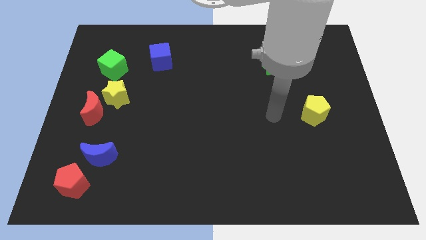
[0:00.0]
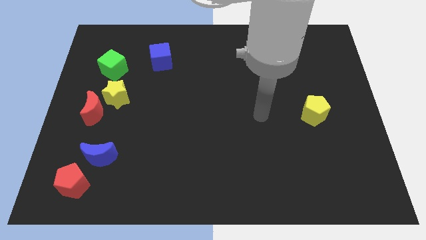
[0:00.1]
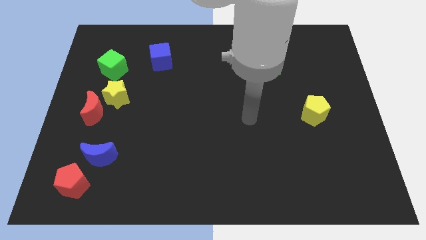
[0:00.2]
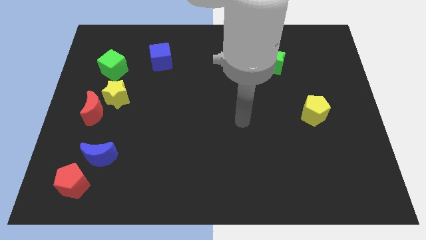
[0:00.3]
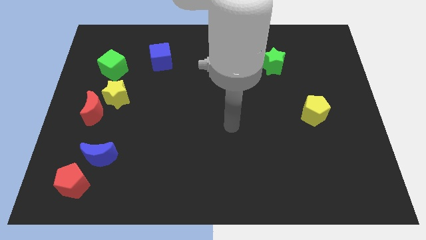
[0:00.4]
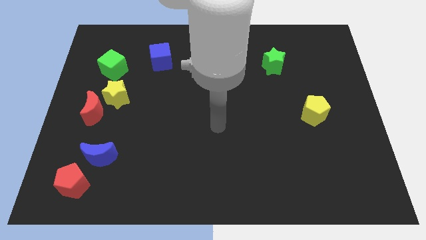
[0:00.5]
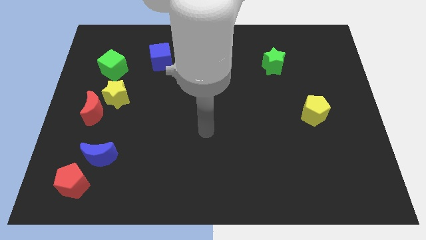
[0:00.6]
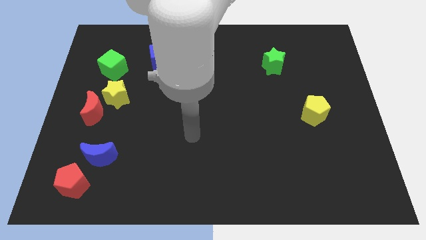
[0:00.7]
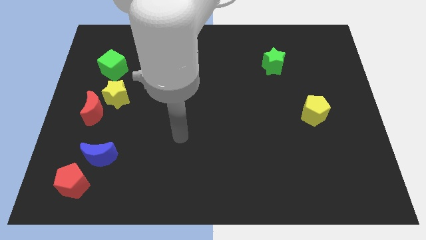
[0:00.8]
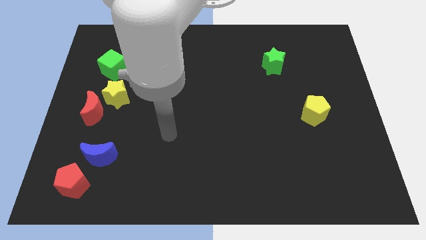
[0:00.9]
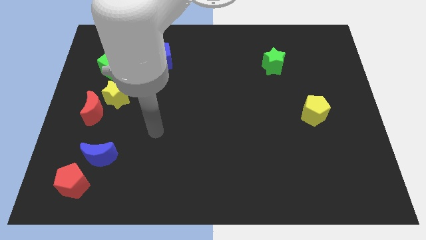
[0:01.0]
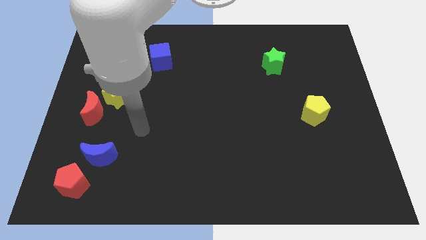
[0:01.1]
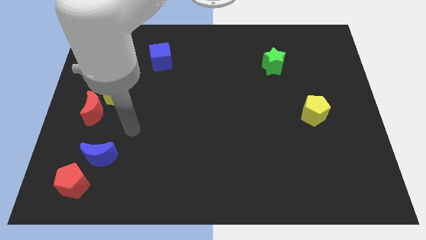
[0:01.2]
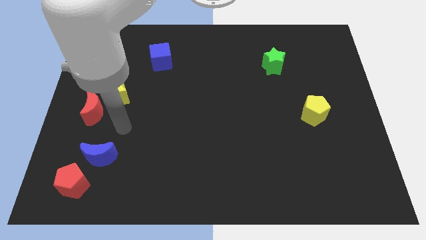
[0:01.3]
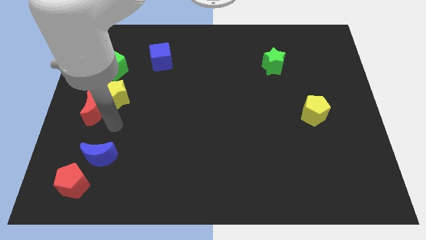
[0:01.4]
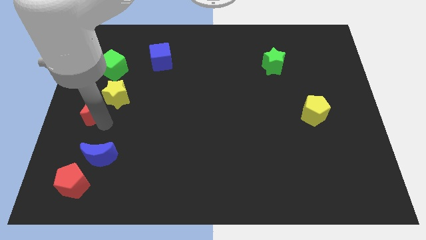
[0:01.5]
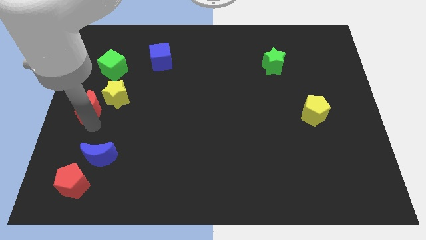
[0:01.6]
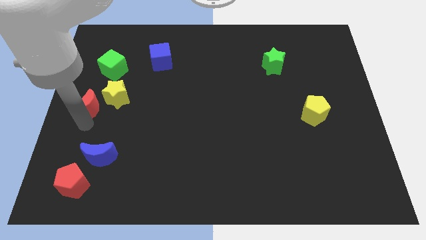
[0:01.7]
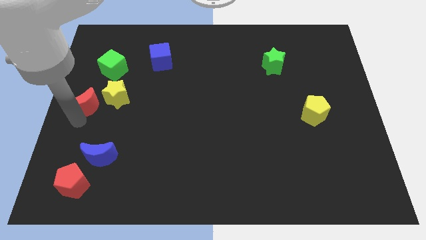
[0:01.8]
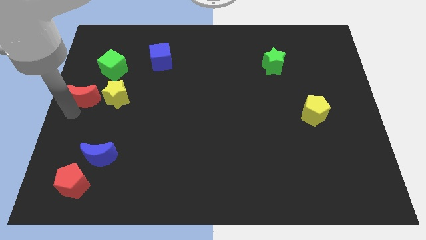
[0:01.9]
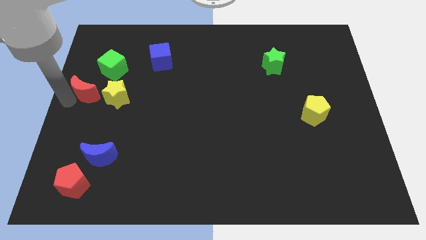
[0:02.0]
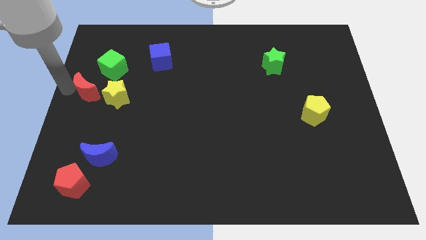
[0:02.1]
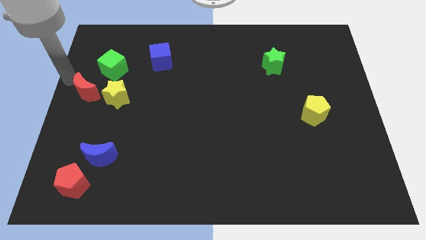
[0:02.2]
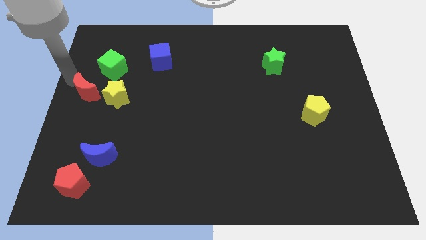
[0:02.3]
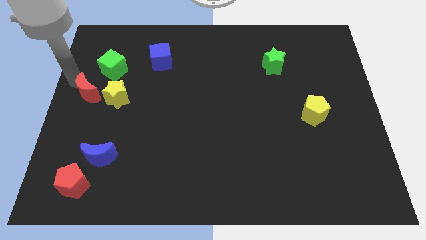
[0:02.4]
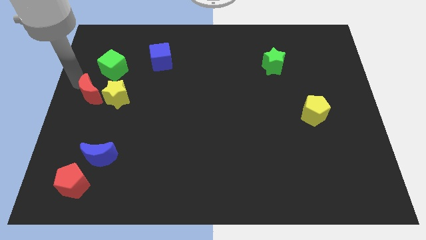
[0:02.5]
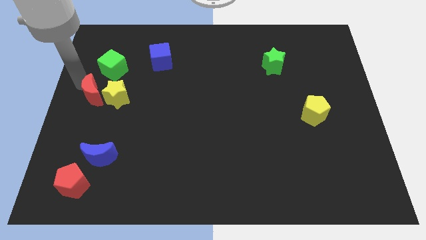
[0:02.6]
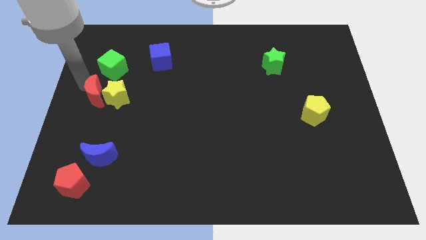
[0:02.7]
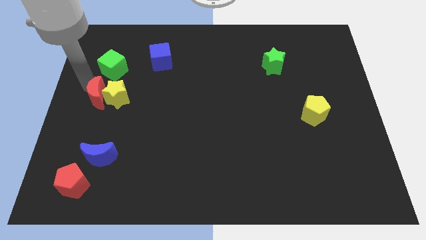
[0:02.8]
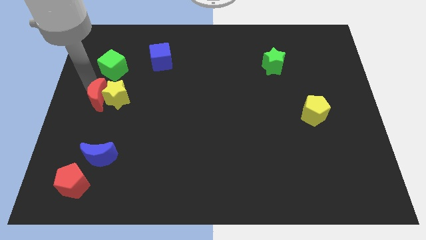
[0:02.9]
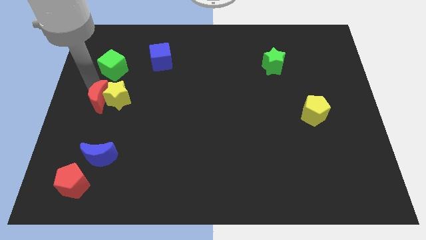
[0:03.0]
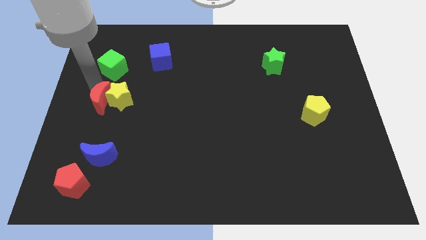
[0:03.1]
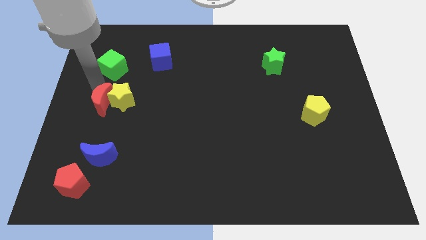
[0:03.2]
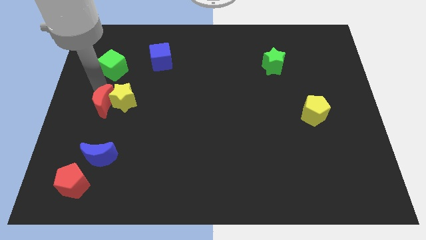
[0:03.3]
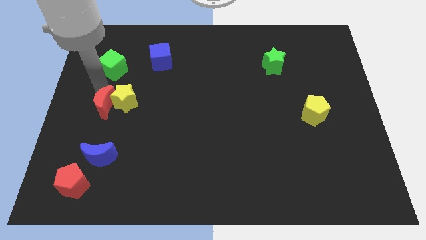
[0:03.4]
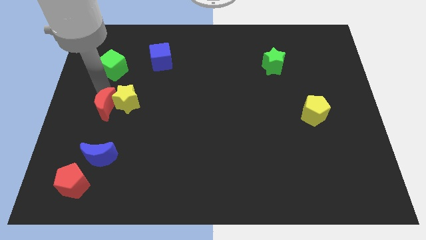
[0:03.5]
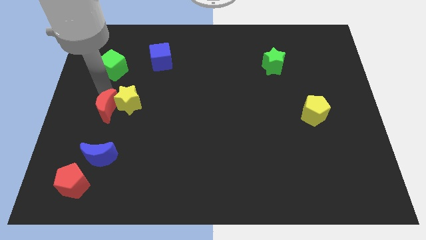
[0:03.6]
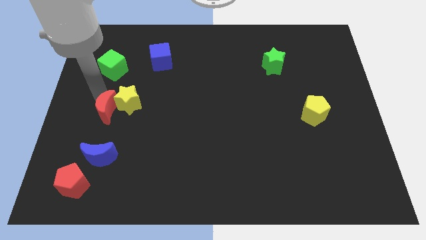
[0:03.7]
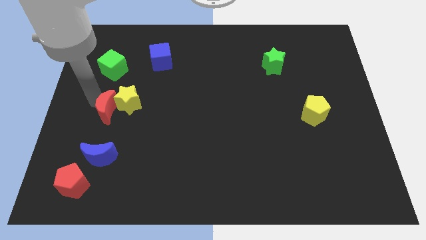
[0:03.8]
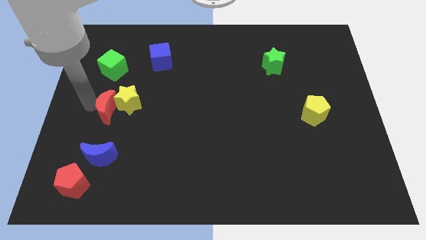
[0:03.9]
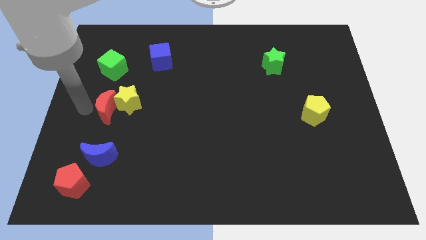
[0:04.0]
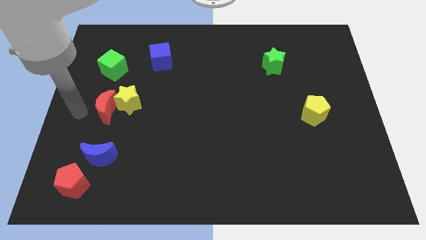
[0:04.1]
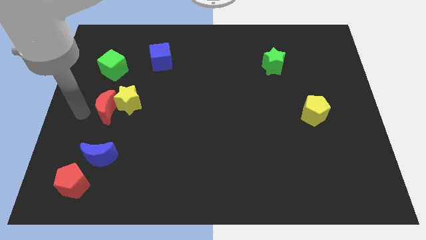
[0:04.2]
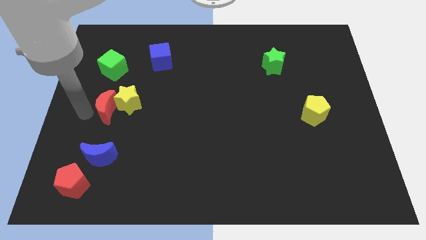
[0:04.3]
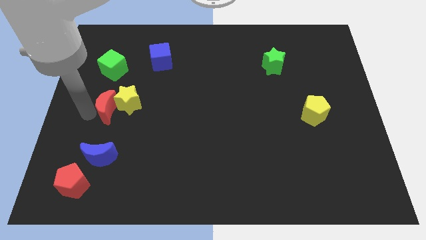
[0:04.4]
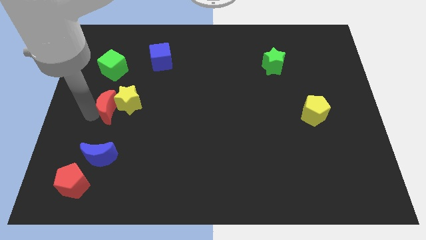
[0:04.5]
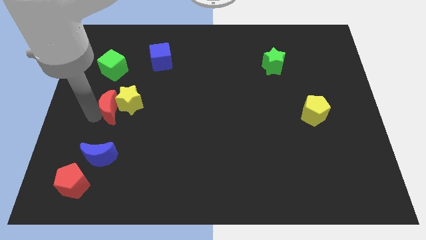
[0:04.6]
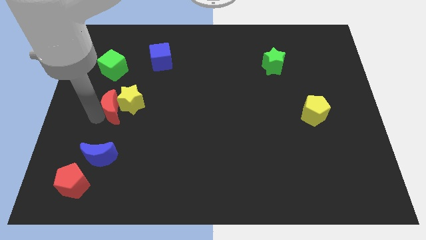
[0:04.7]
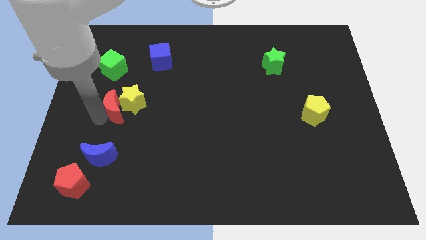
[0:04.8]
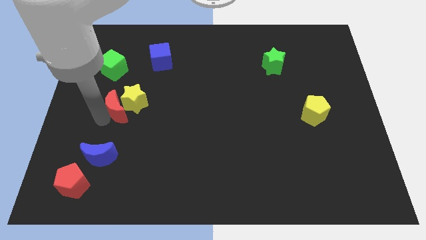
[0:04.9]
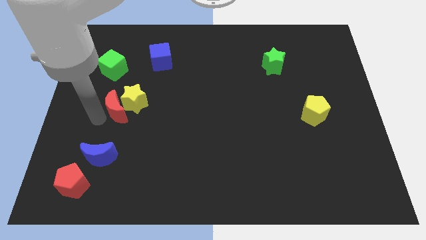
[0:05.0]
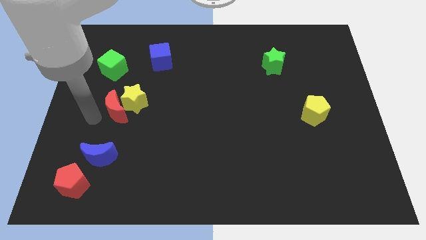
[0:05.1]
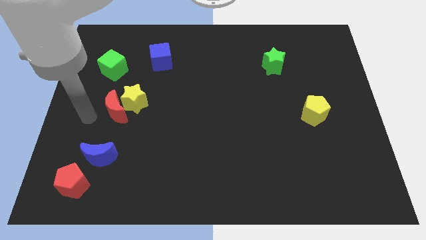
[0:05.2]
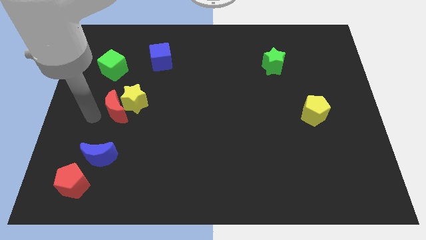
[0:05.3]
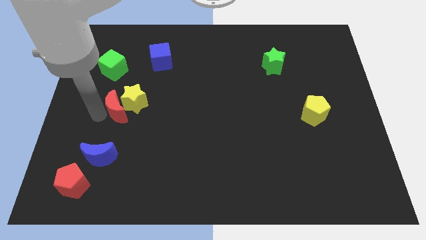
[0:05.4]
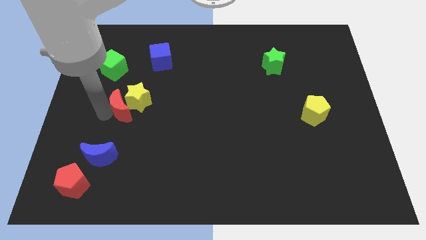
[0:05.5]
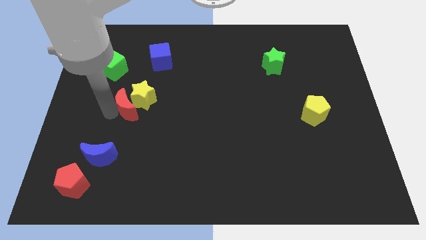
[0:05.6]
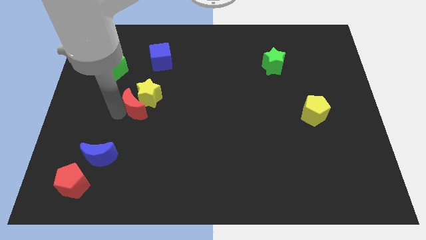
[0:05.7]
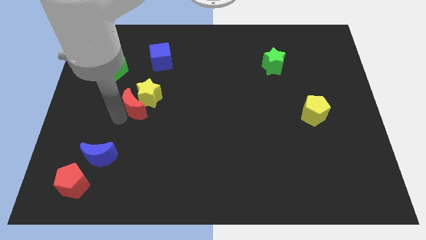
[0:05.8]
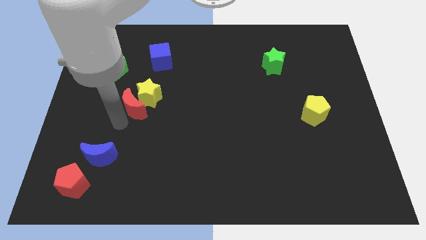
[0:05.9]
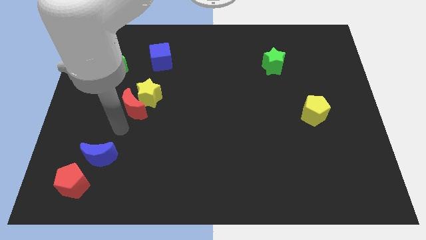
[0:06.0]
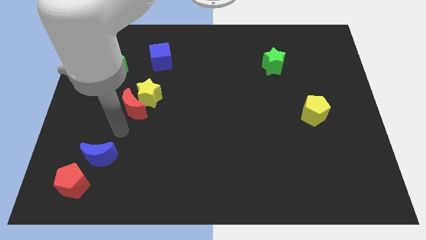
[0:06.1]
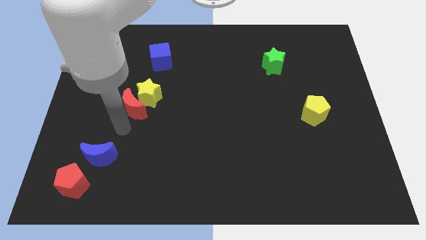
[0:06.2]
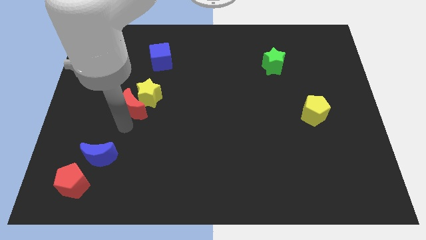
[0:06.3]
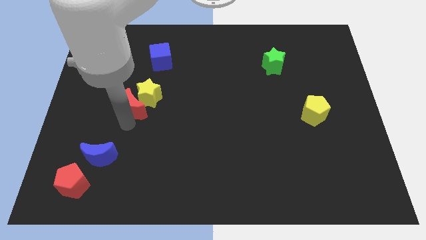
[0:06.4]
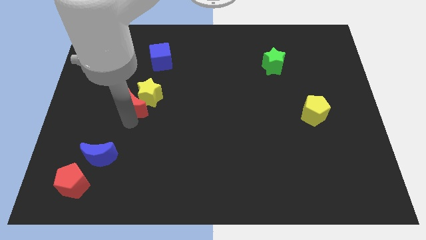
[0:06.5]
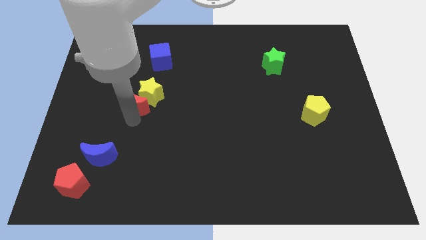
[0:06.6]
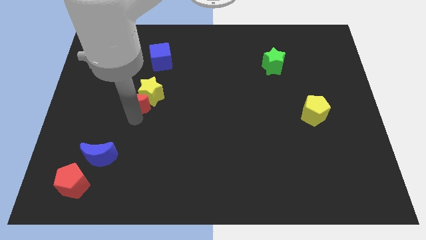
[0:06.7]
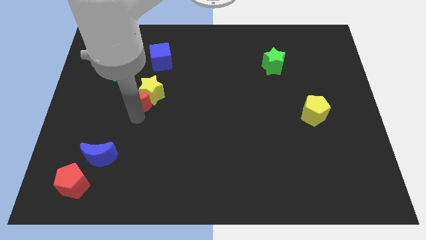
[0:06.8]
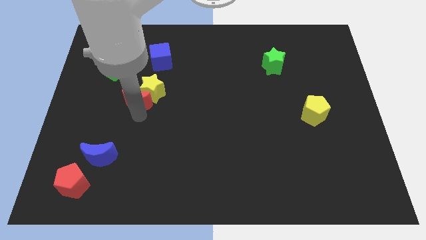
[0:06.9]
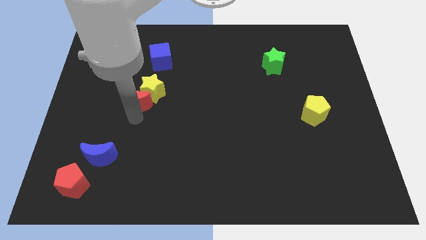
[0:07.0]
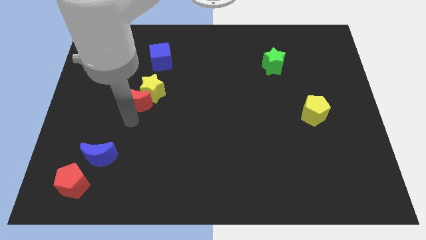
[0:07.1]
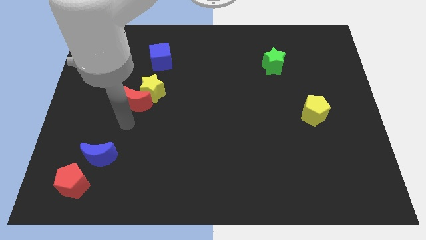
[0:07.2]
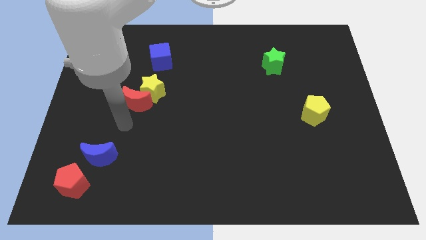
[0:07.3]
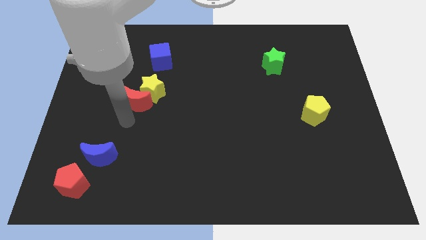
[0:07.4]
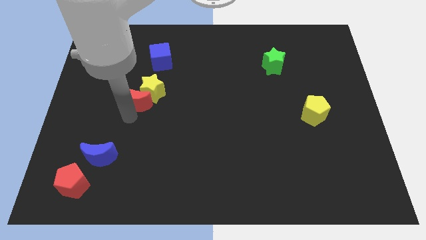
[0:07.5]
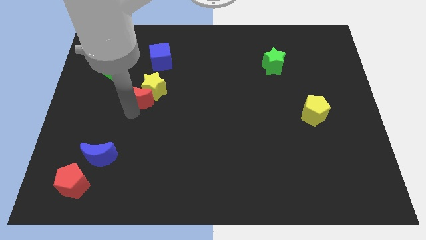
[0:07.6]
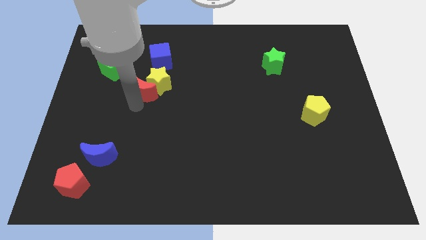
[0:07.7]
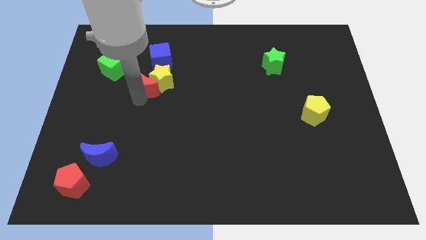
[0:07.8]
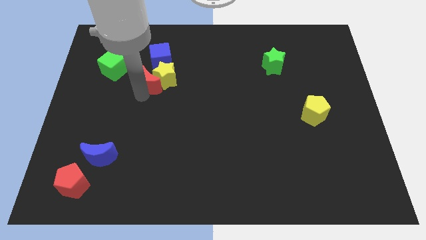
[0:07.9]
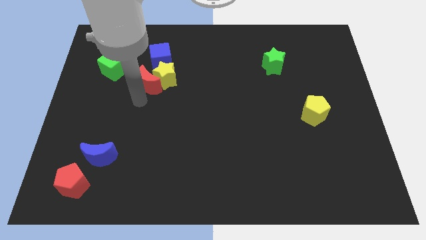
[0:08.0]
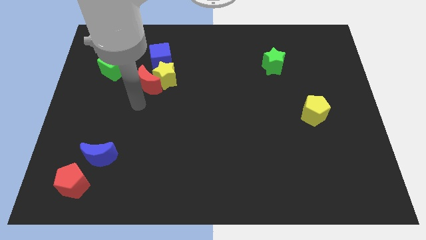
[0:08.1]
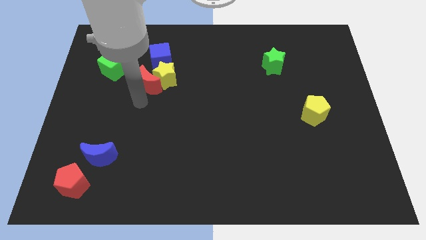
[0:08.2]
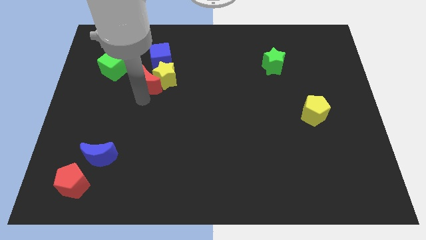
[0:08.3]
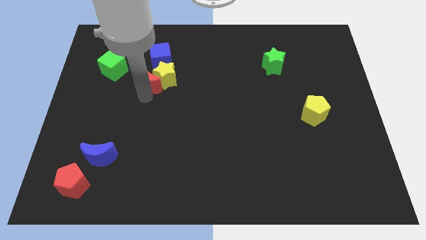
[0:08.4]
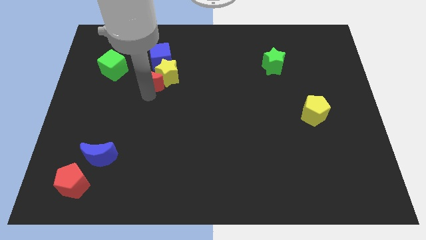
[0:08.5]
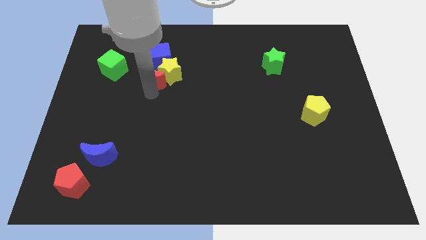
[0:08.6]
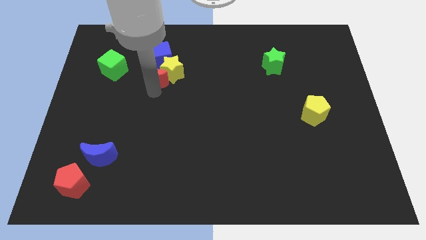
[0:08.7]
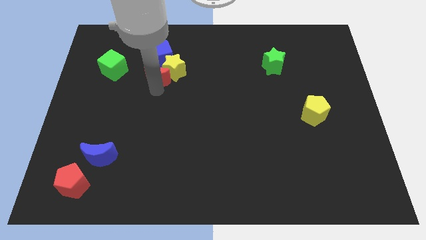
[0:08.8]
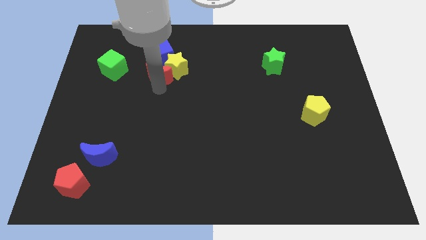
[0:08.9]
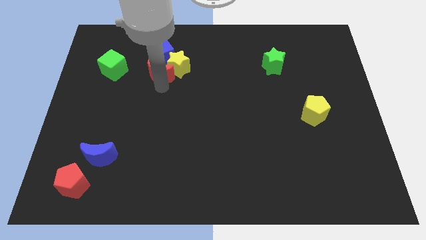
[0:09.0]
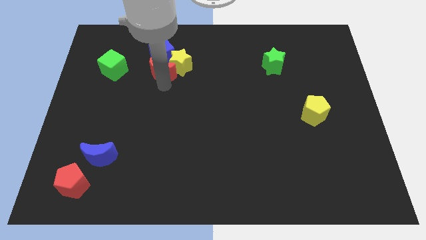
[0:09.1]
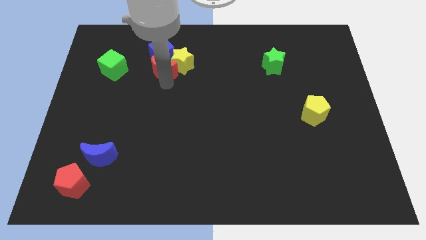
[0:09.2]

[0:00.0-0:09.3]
push the red moon next to the blue cube
